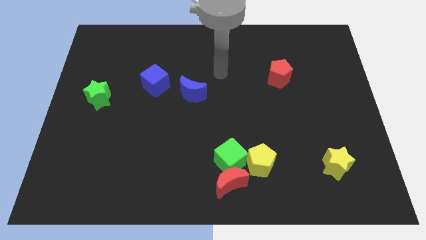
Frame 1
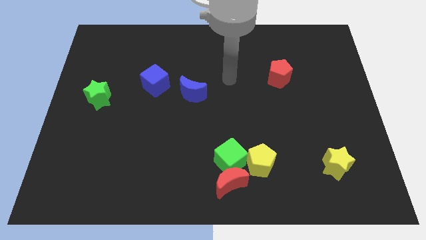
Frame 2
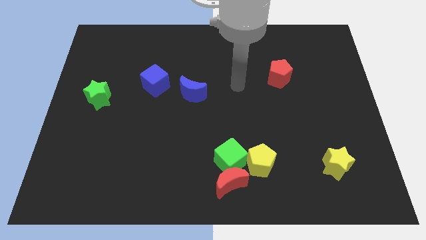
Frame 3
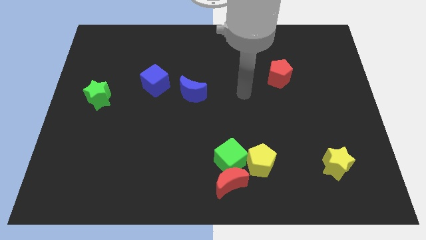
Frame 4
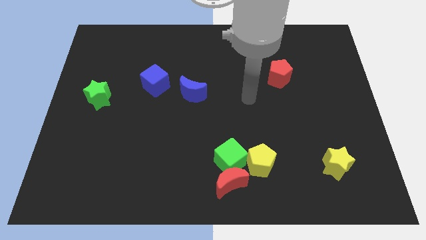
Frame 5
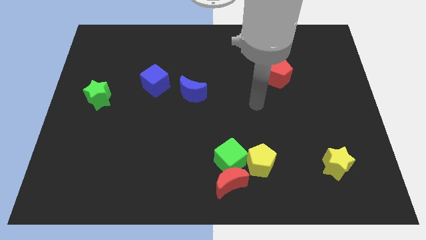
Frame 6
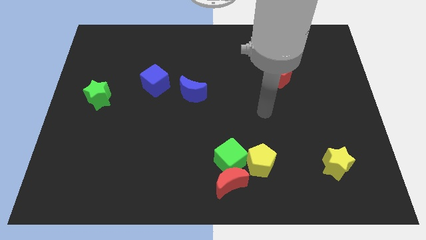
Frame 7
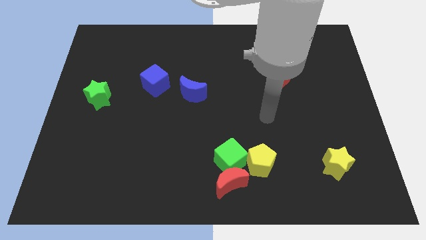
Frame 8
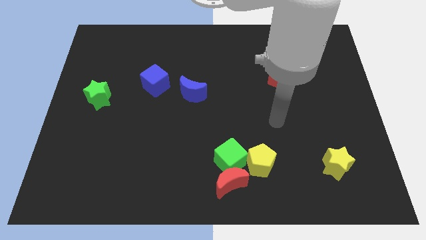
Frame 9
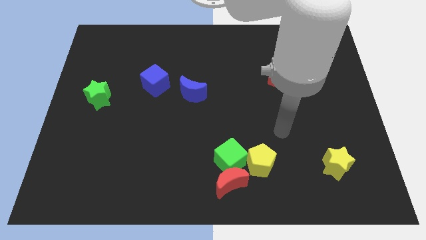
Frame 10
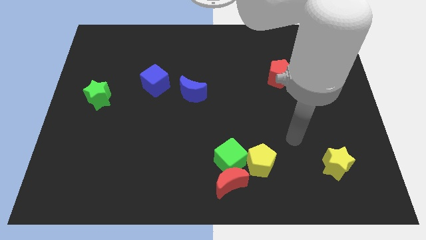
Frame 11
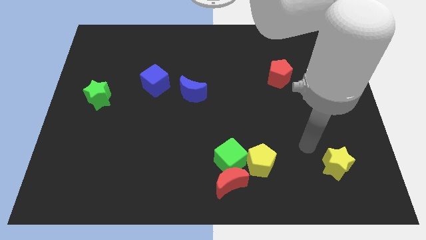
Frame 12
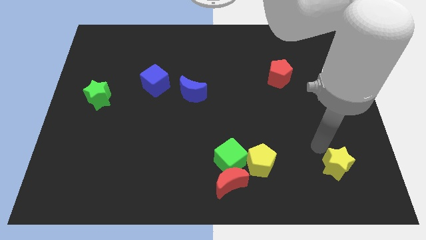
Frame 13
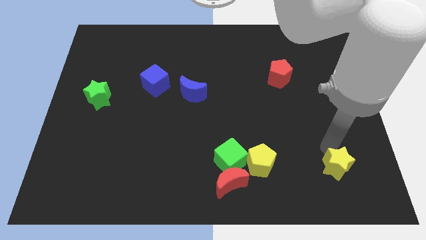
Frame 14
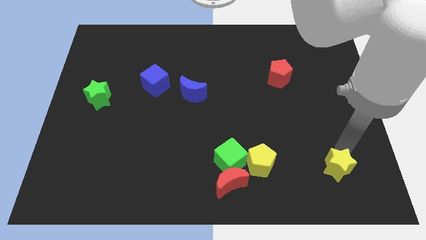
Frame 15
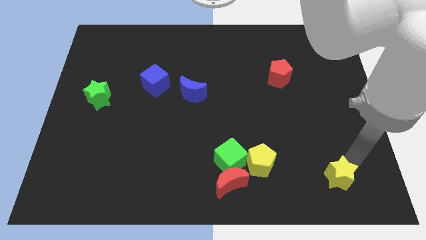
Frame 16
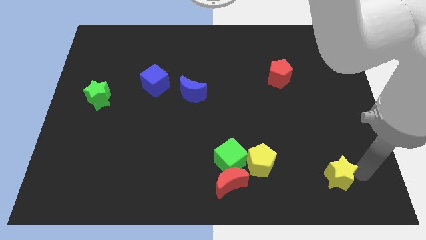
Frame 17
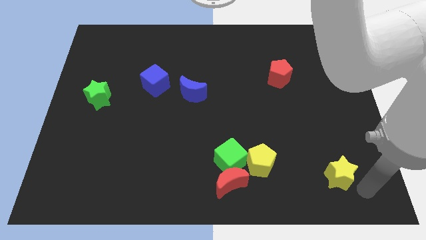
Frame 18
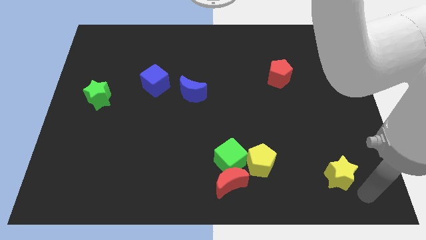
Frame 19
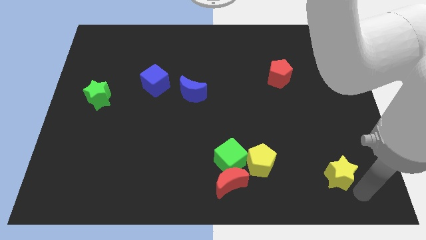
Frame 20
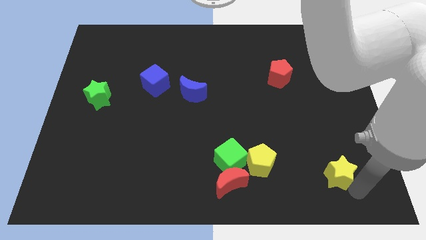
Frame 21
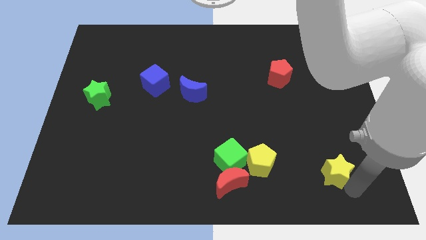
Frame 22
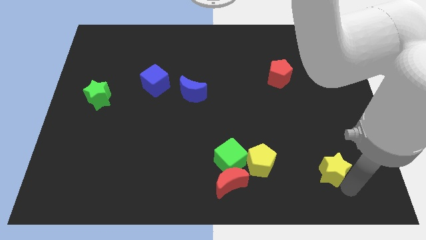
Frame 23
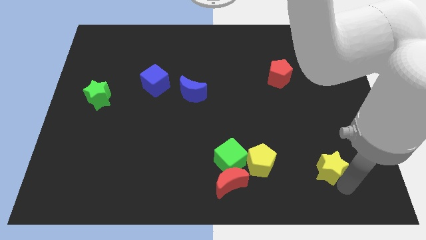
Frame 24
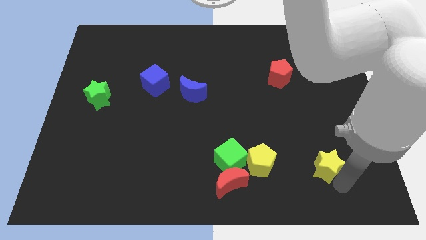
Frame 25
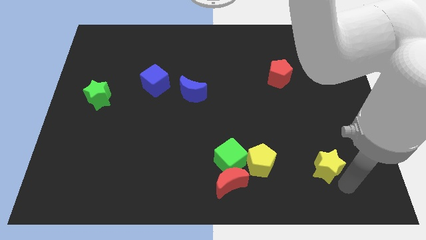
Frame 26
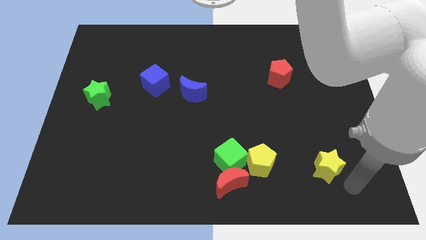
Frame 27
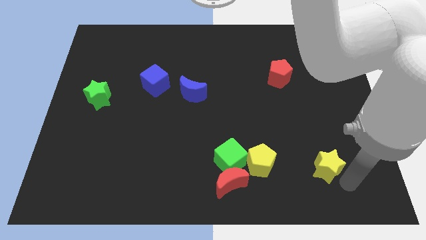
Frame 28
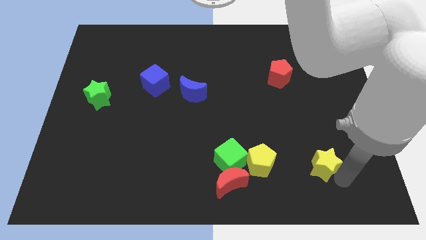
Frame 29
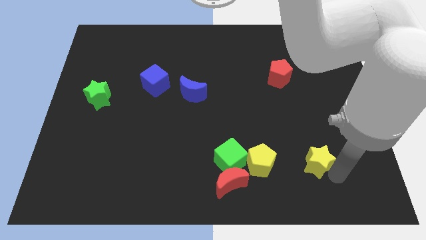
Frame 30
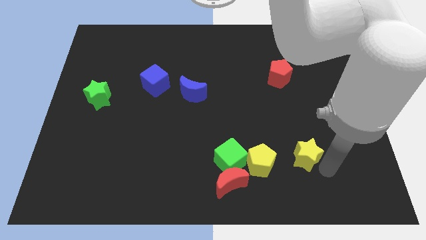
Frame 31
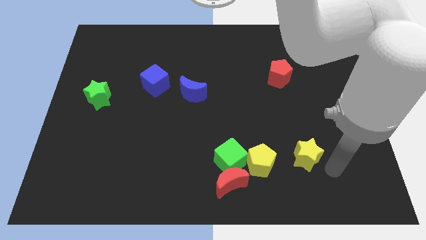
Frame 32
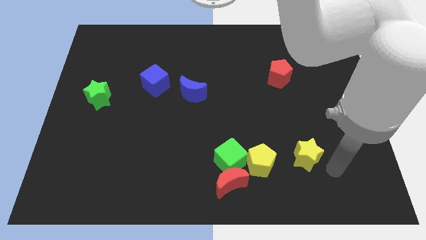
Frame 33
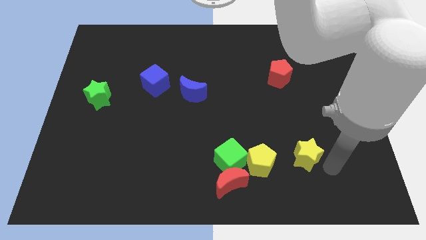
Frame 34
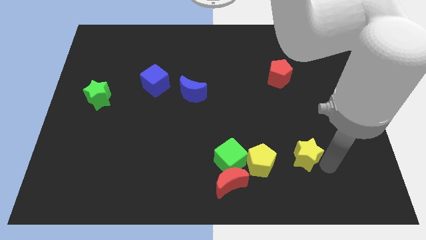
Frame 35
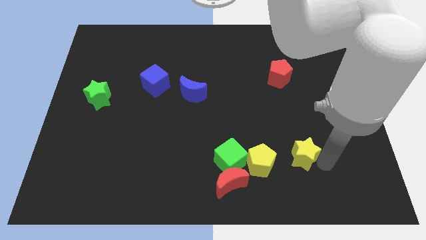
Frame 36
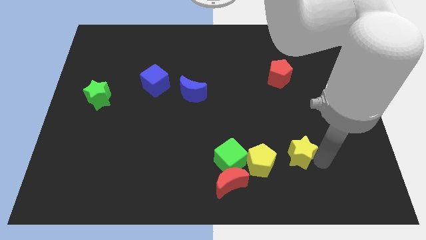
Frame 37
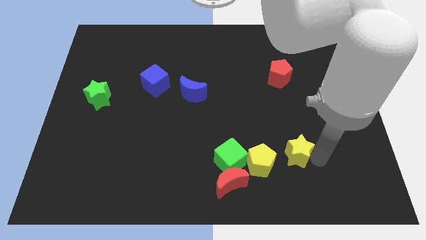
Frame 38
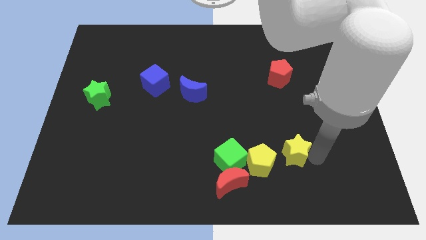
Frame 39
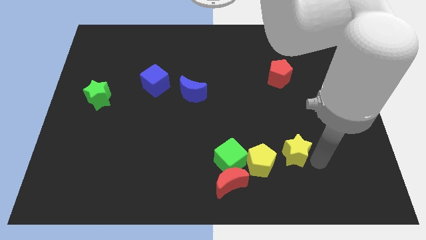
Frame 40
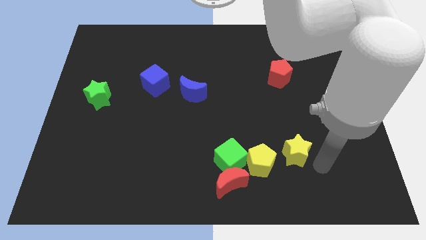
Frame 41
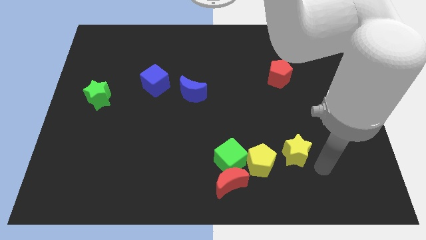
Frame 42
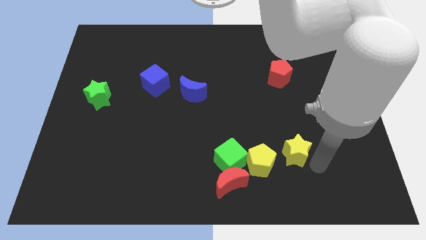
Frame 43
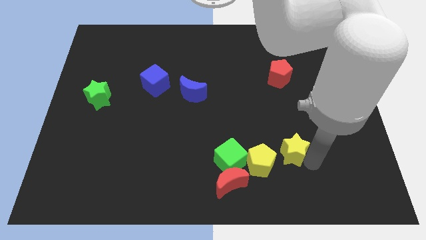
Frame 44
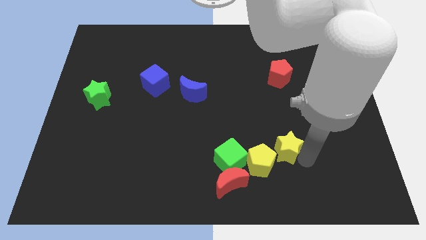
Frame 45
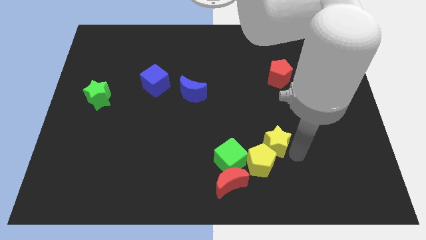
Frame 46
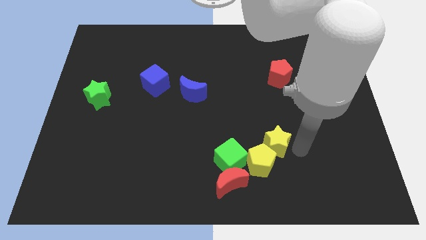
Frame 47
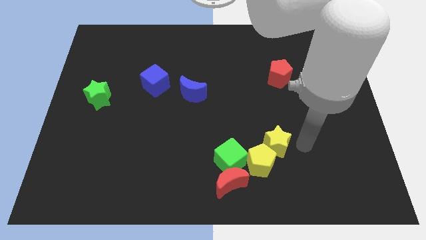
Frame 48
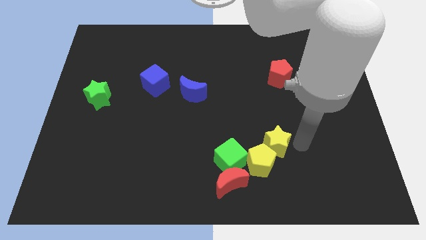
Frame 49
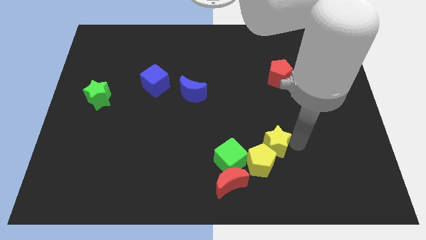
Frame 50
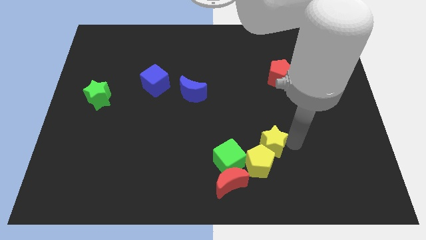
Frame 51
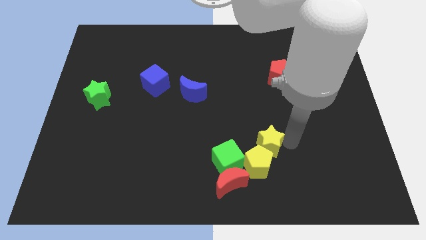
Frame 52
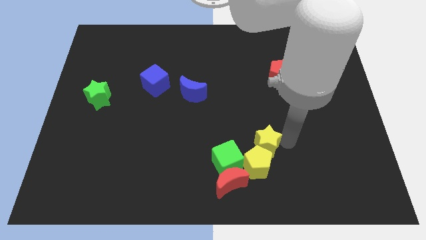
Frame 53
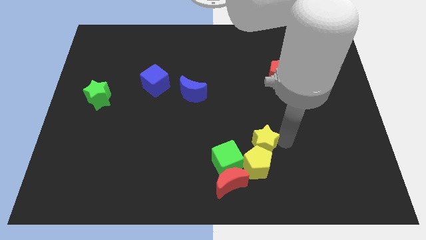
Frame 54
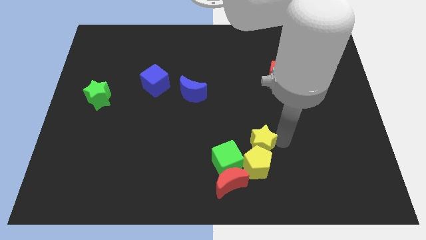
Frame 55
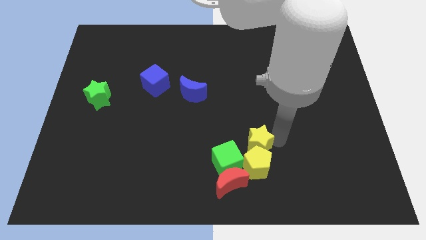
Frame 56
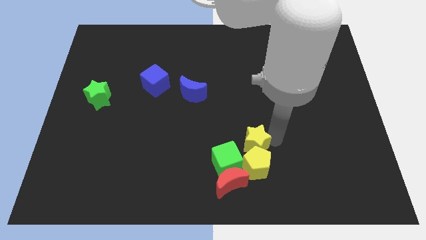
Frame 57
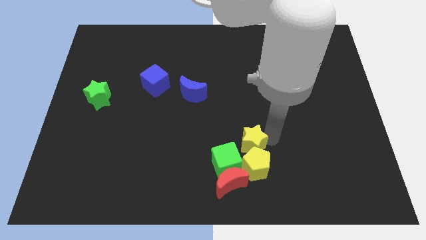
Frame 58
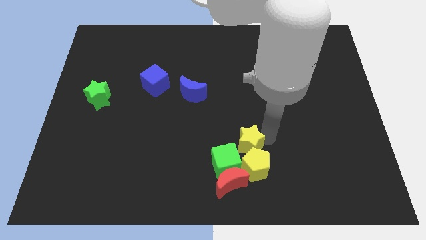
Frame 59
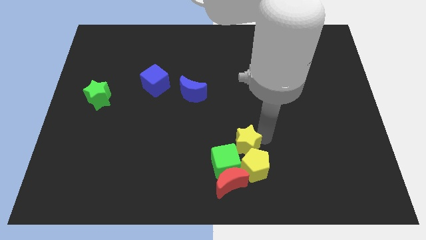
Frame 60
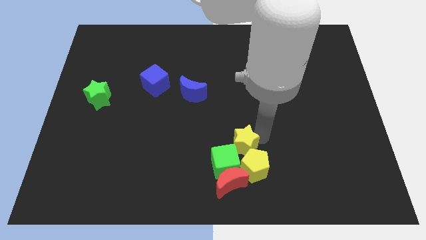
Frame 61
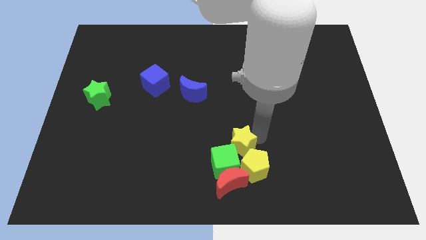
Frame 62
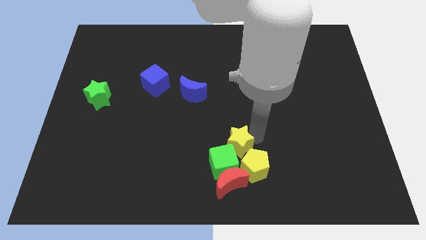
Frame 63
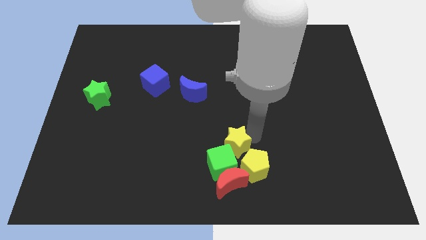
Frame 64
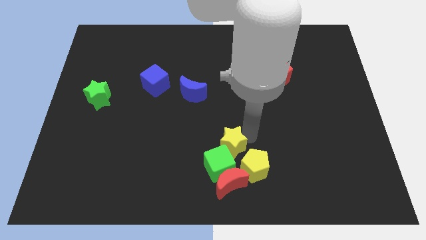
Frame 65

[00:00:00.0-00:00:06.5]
slide the yellow star left

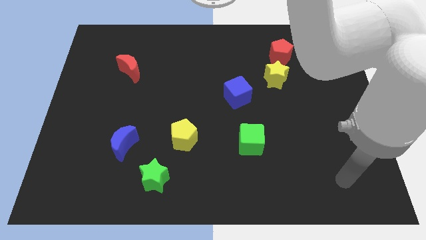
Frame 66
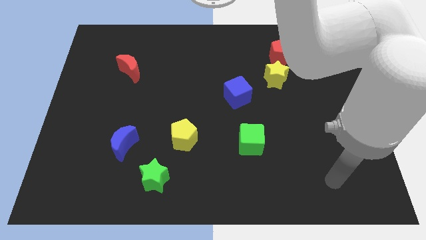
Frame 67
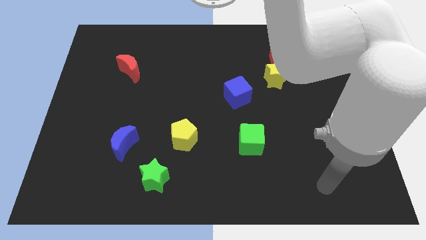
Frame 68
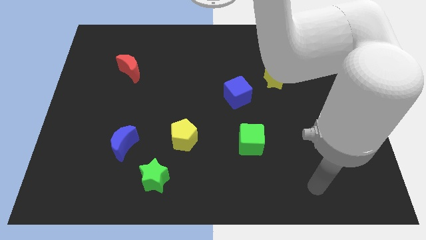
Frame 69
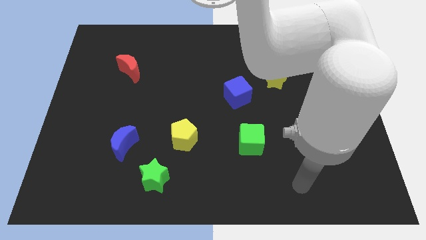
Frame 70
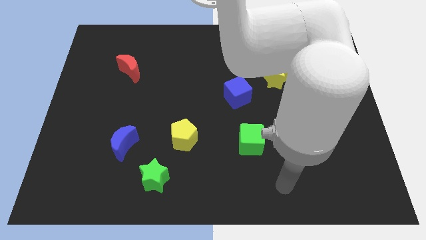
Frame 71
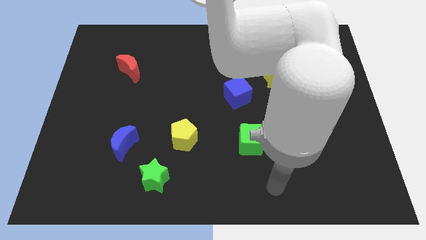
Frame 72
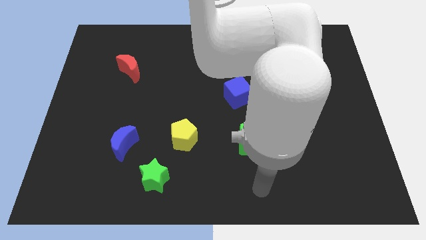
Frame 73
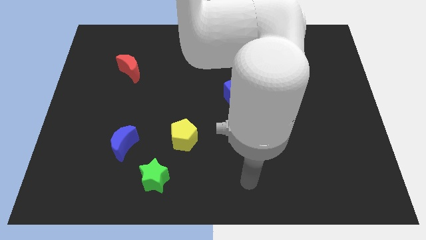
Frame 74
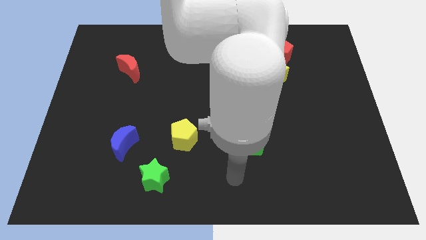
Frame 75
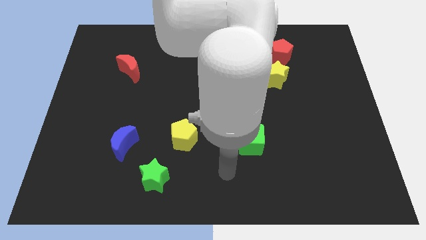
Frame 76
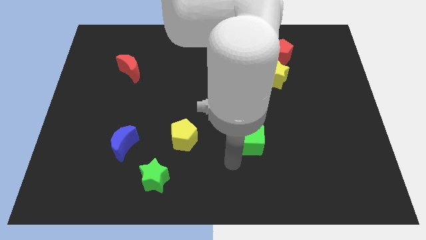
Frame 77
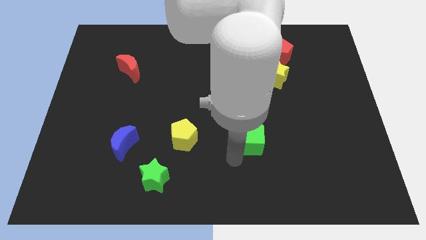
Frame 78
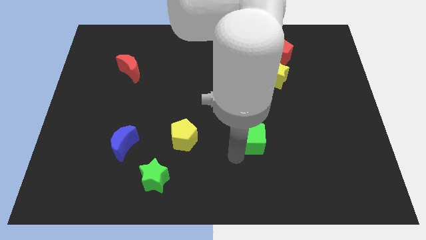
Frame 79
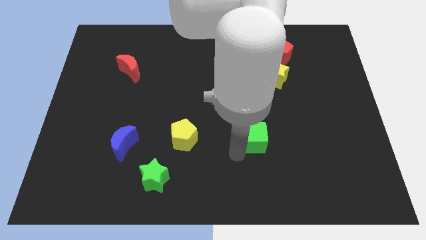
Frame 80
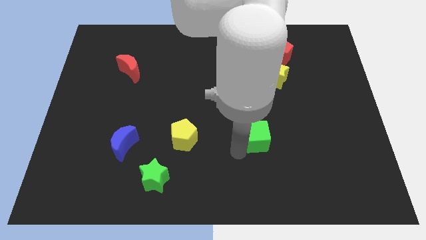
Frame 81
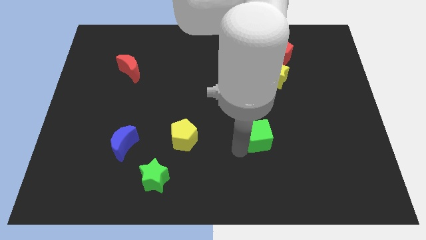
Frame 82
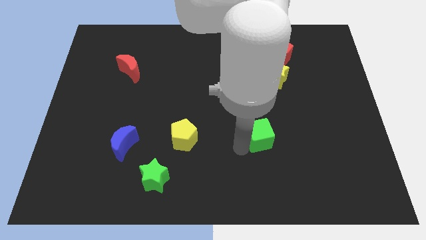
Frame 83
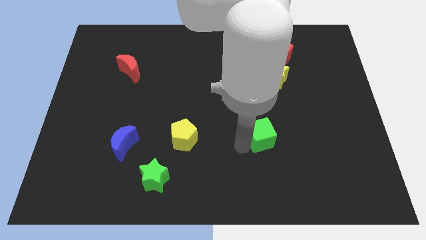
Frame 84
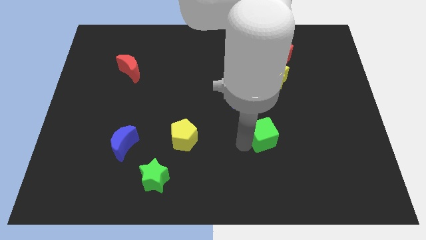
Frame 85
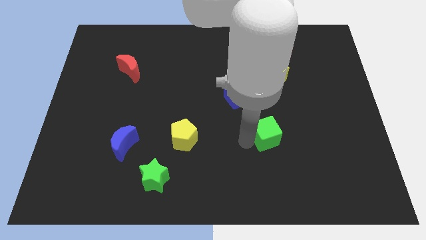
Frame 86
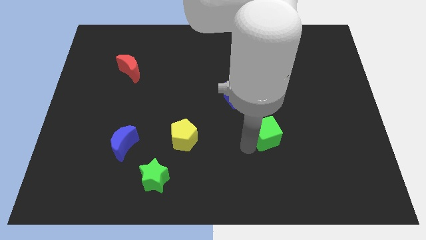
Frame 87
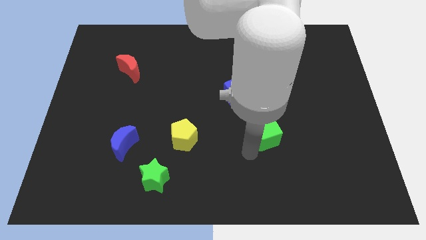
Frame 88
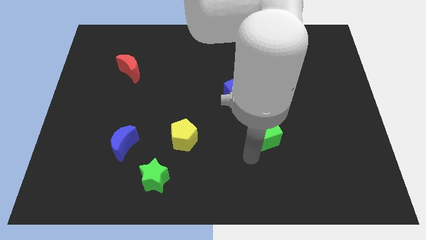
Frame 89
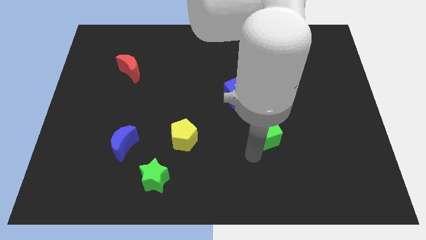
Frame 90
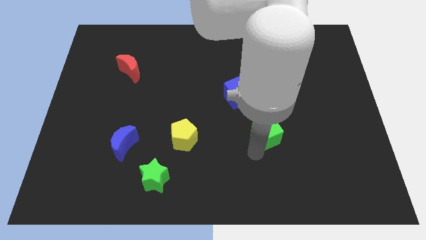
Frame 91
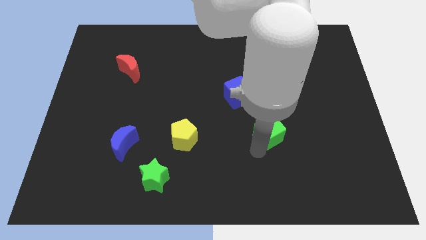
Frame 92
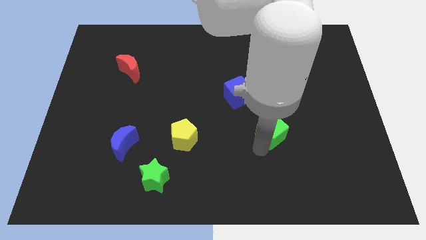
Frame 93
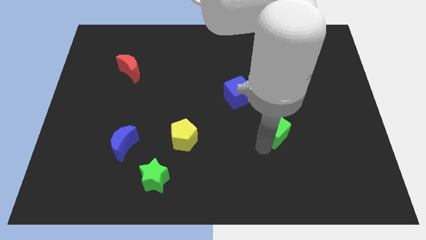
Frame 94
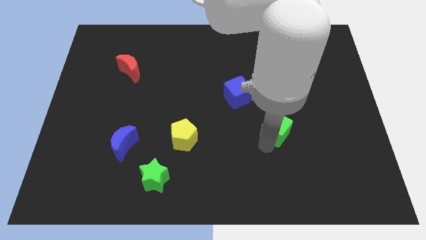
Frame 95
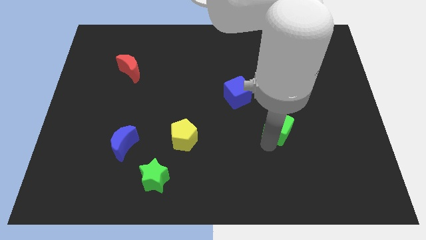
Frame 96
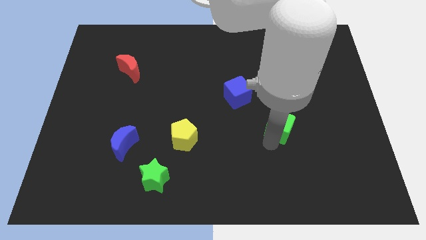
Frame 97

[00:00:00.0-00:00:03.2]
slightly push the green cube upwards and then to the right
